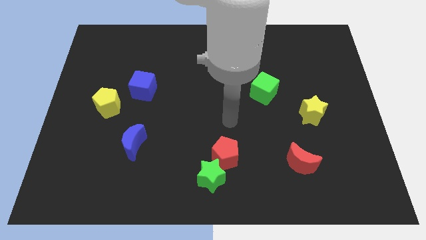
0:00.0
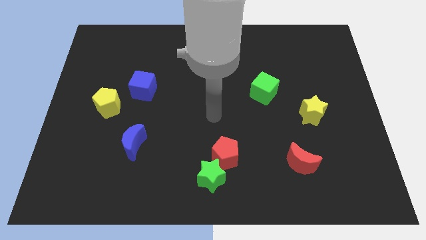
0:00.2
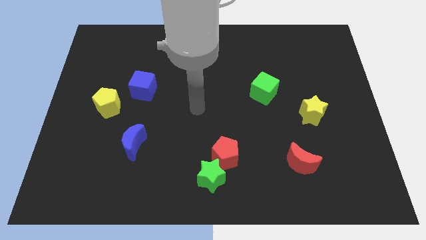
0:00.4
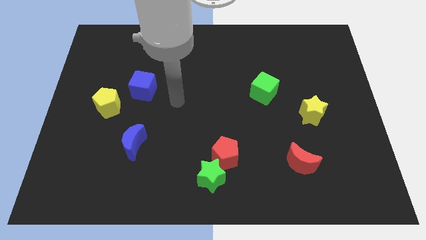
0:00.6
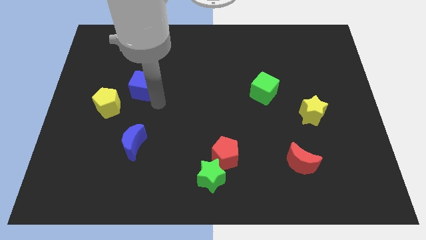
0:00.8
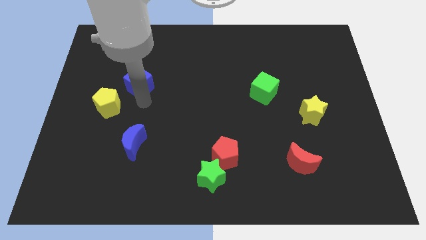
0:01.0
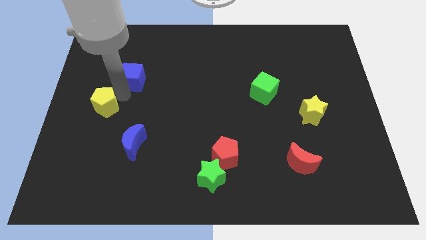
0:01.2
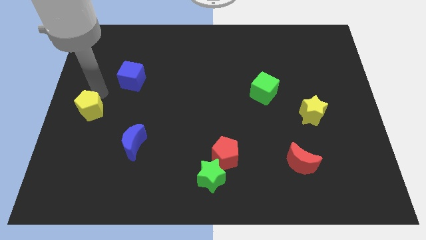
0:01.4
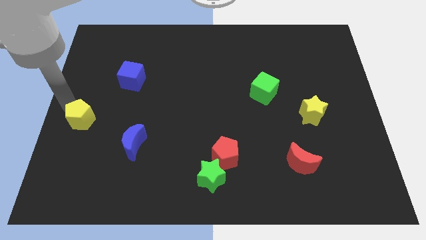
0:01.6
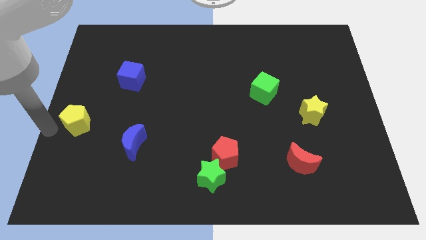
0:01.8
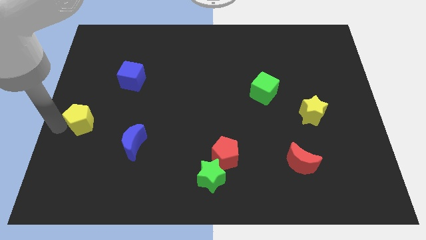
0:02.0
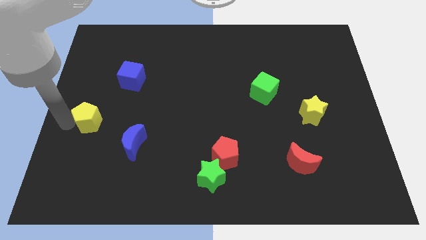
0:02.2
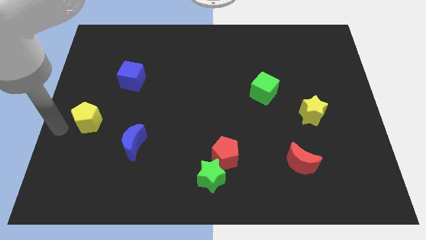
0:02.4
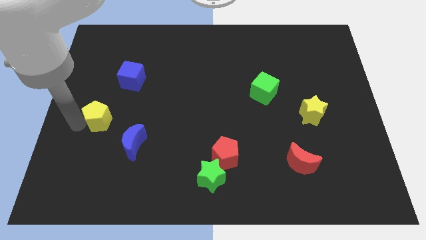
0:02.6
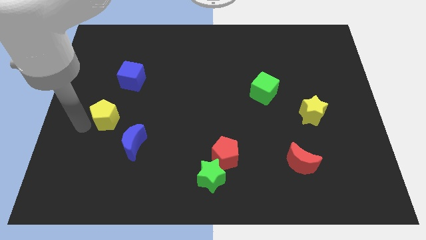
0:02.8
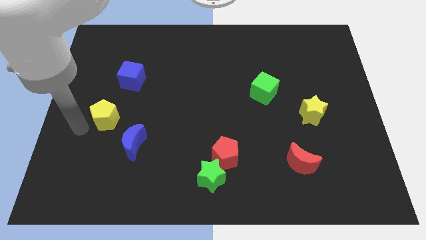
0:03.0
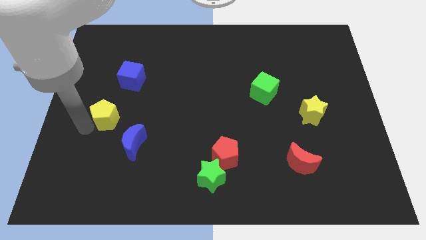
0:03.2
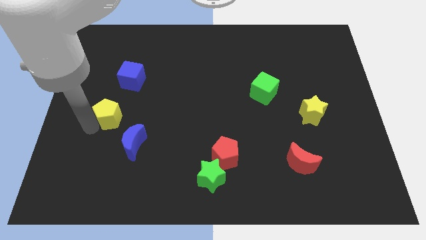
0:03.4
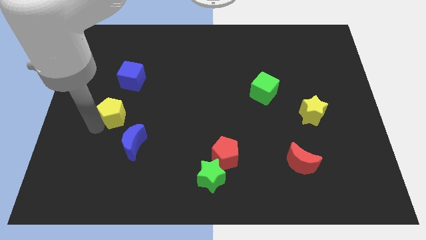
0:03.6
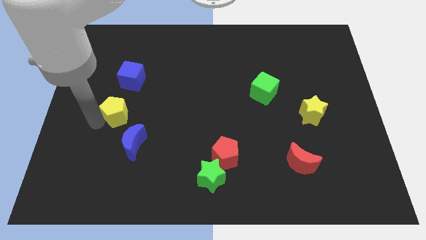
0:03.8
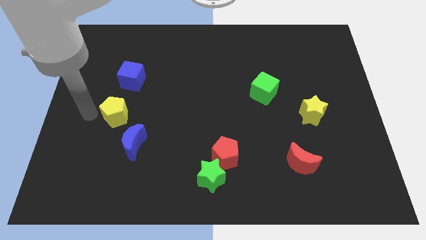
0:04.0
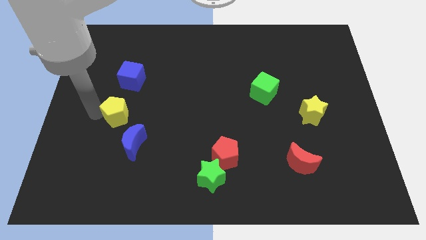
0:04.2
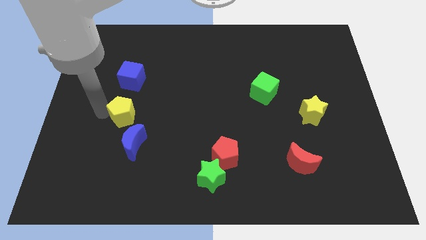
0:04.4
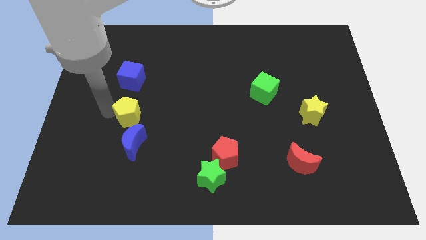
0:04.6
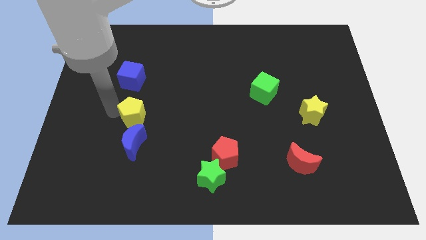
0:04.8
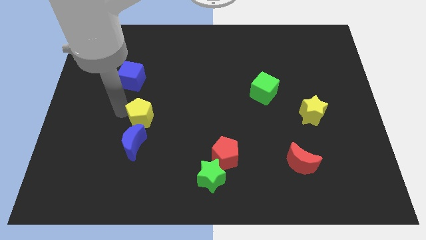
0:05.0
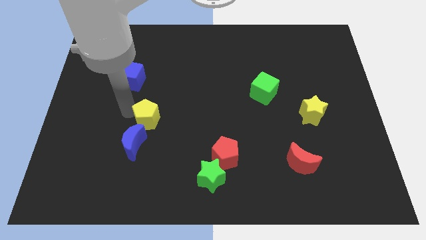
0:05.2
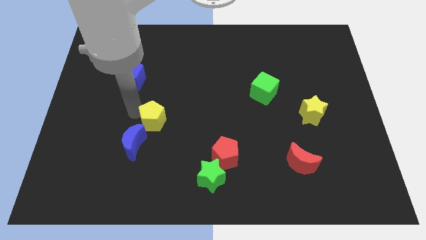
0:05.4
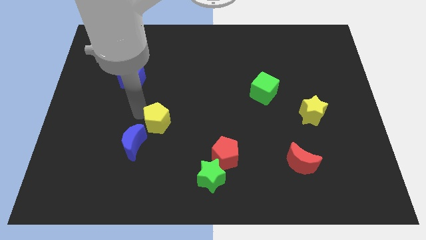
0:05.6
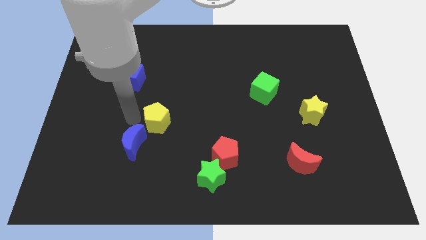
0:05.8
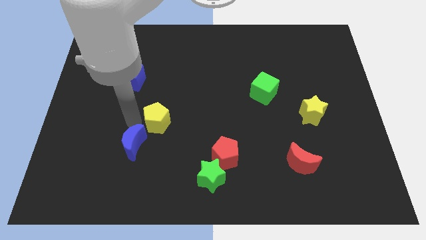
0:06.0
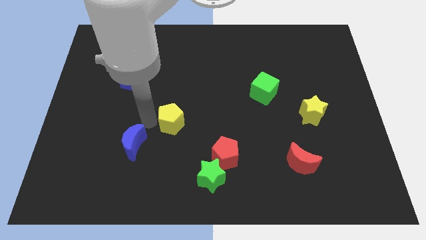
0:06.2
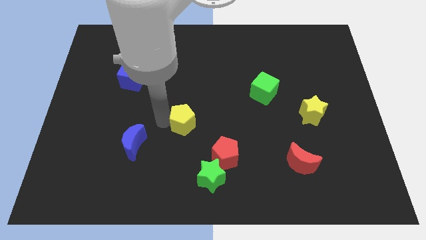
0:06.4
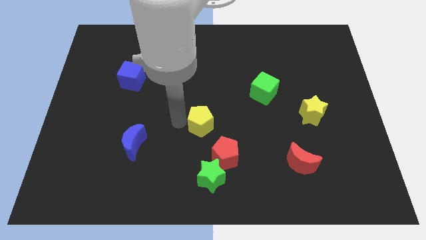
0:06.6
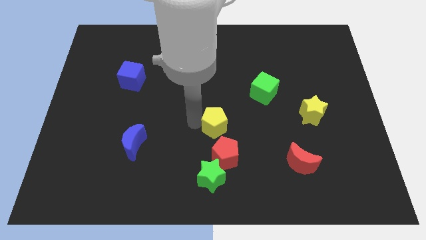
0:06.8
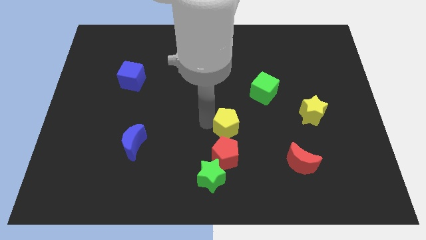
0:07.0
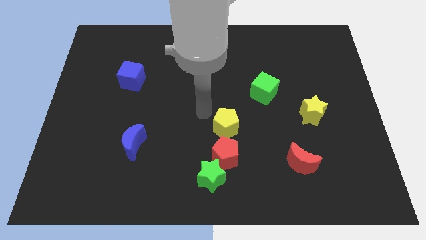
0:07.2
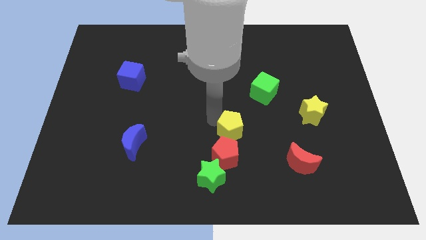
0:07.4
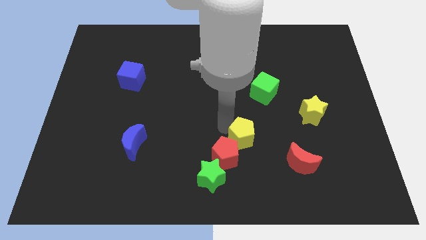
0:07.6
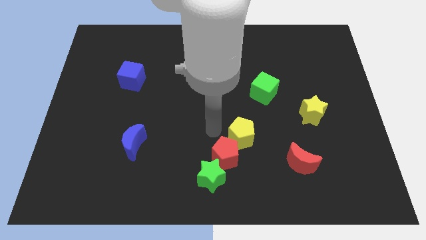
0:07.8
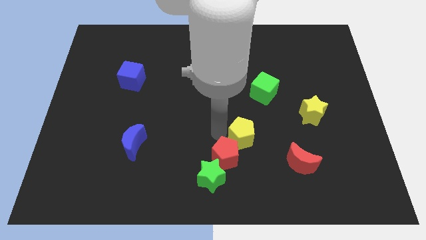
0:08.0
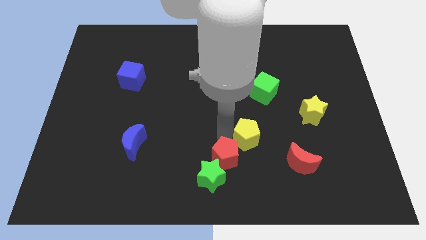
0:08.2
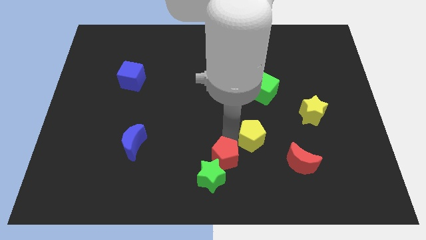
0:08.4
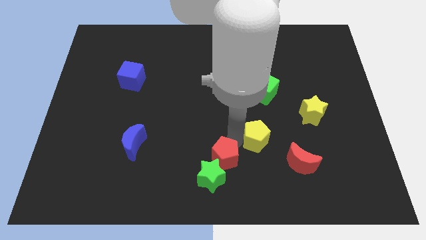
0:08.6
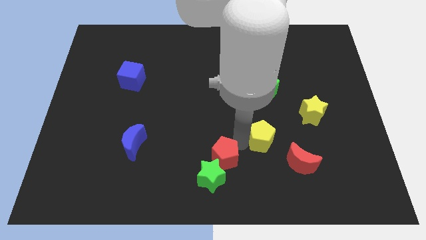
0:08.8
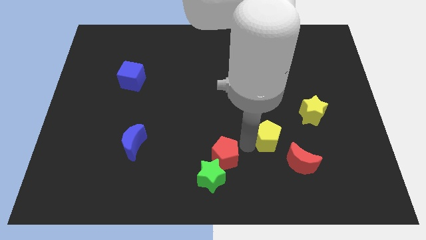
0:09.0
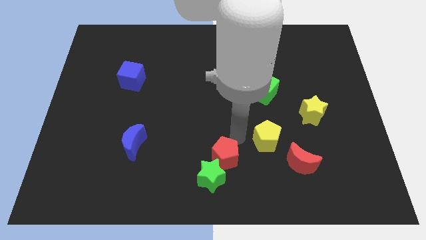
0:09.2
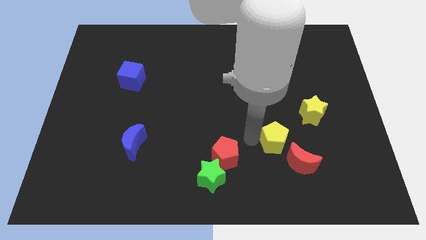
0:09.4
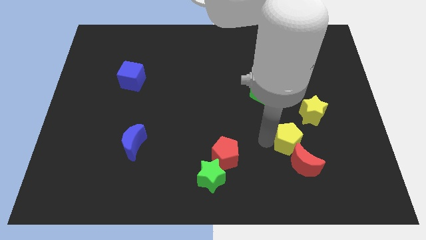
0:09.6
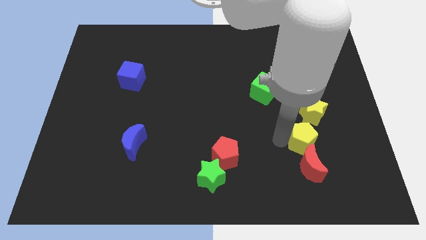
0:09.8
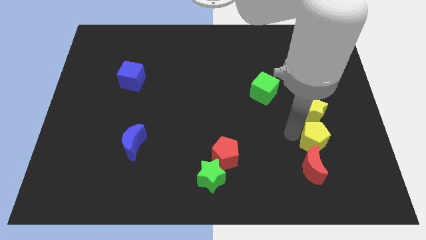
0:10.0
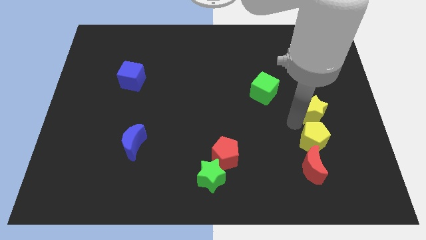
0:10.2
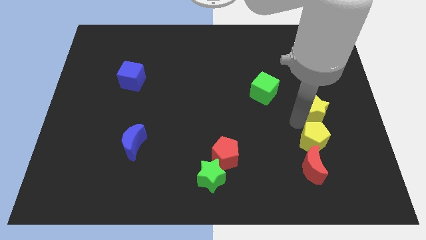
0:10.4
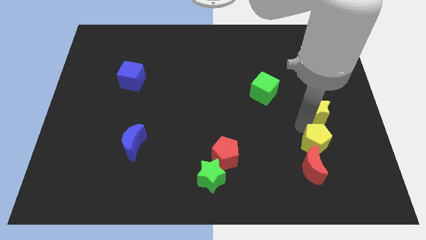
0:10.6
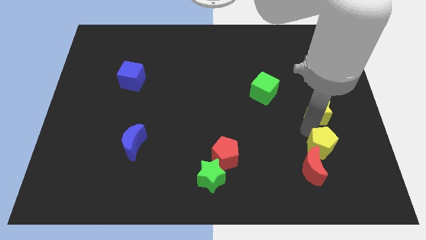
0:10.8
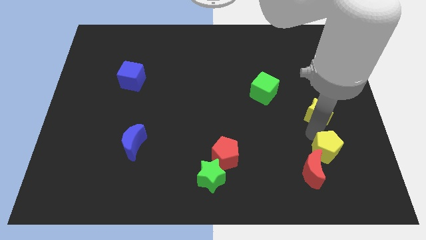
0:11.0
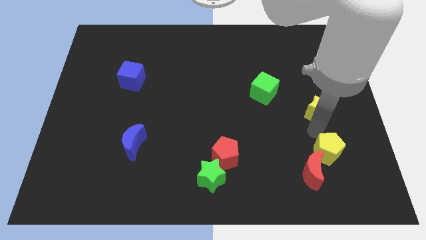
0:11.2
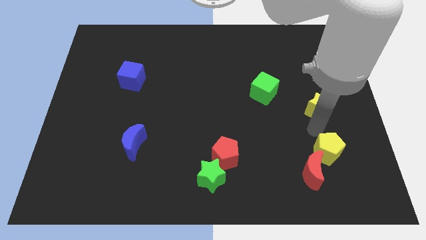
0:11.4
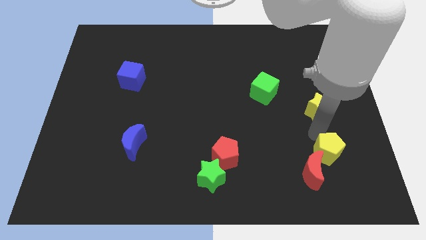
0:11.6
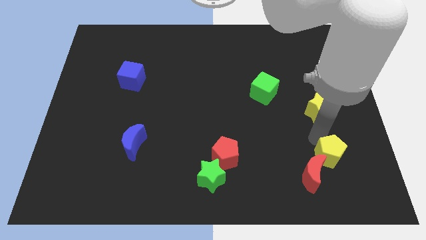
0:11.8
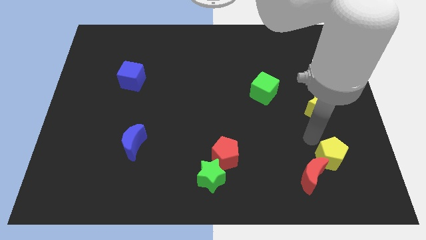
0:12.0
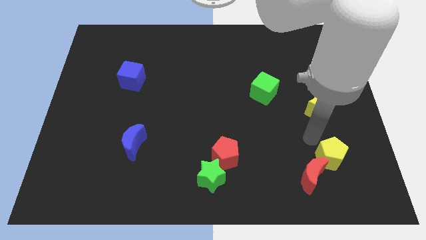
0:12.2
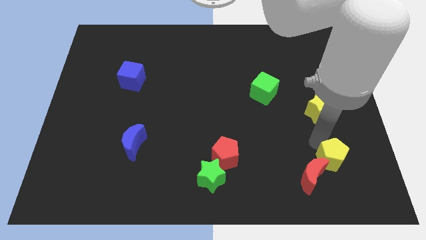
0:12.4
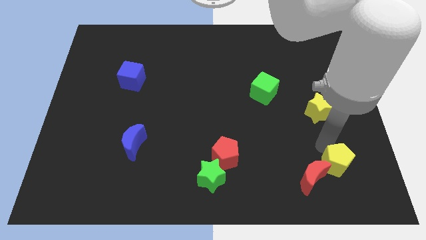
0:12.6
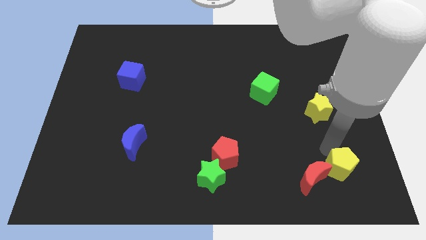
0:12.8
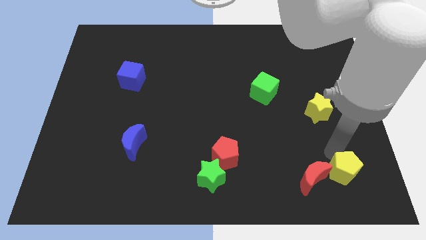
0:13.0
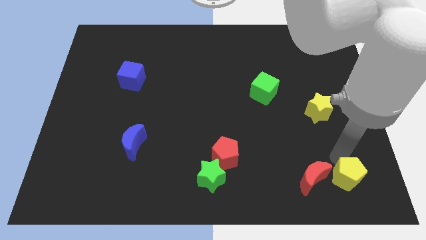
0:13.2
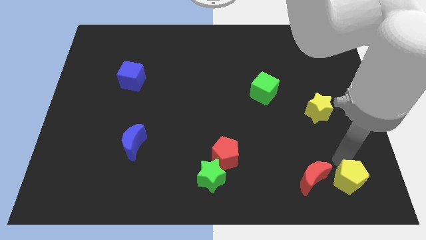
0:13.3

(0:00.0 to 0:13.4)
put the yellow pentagon to the lower right corner
